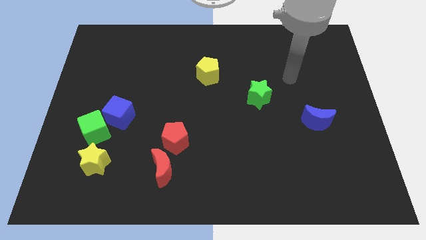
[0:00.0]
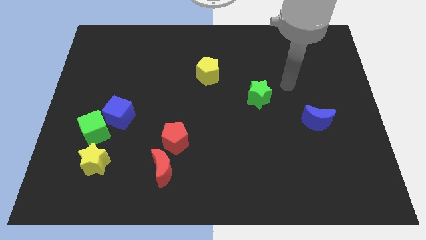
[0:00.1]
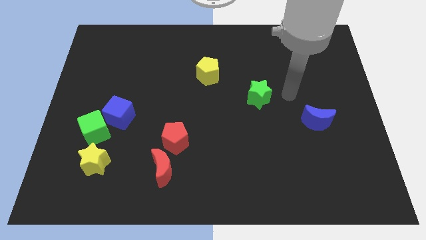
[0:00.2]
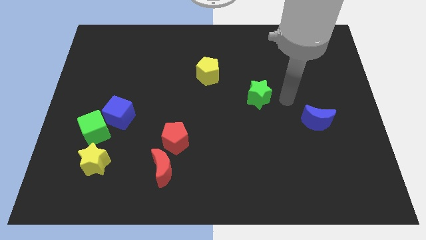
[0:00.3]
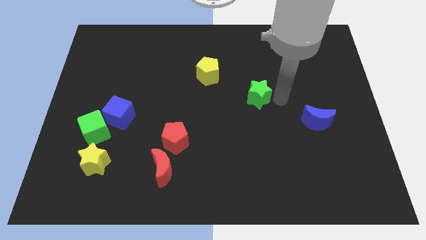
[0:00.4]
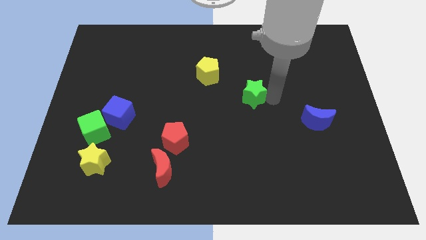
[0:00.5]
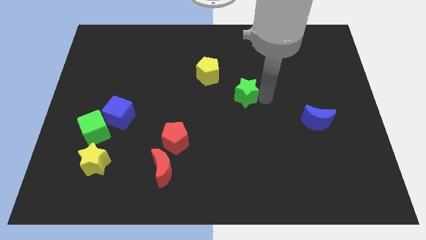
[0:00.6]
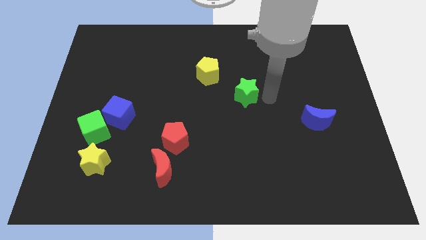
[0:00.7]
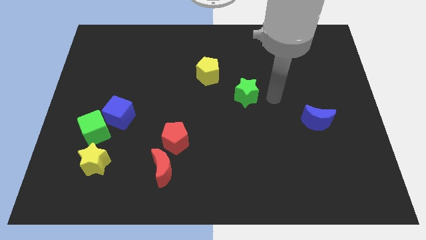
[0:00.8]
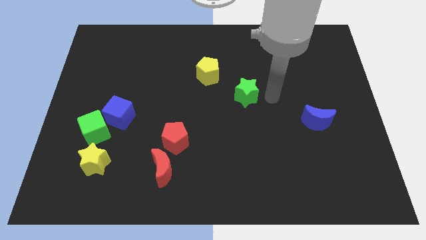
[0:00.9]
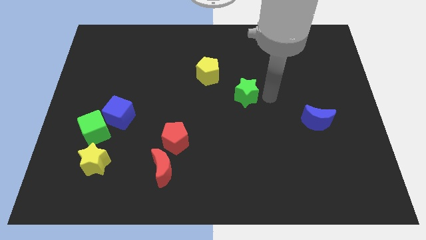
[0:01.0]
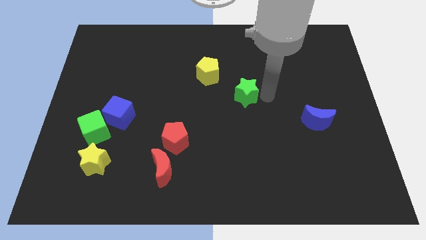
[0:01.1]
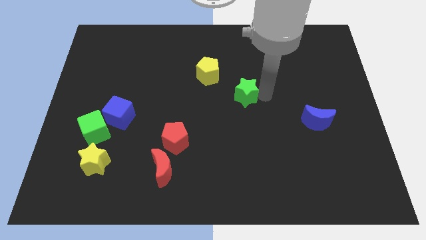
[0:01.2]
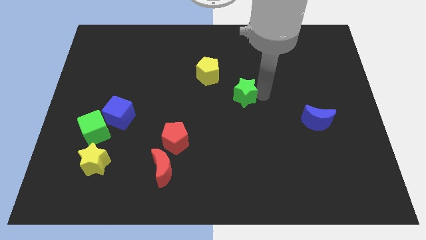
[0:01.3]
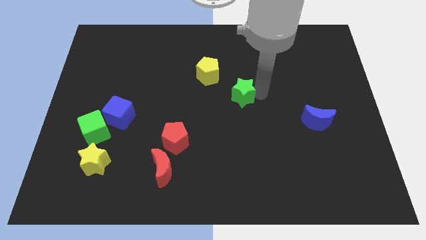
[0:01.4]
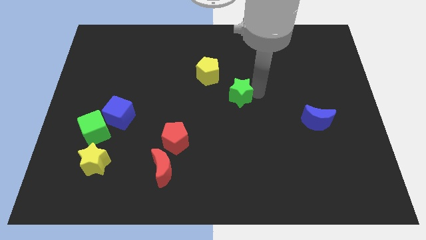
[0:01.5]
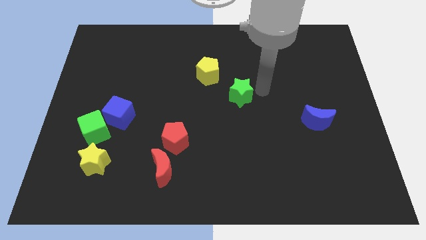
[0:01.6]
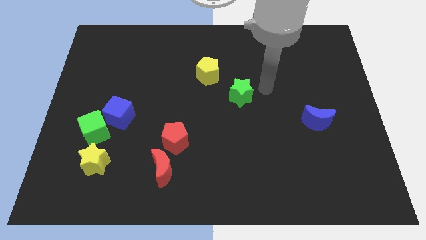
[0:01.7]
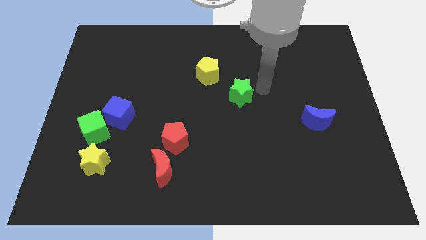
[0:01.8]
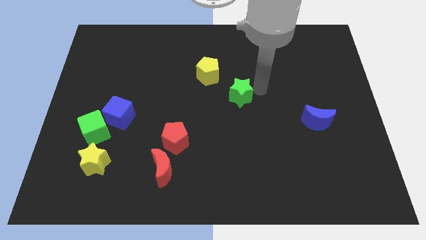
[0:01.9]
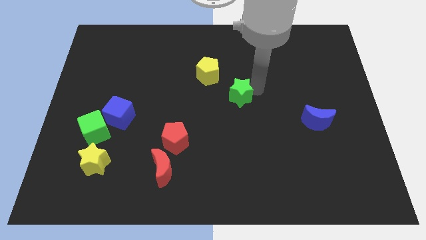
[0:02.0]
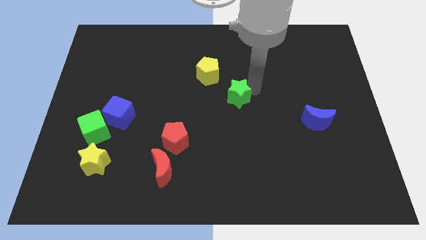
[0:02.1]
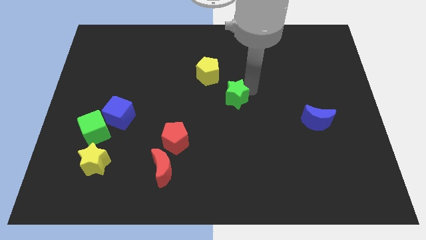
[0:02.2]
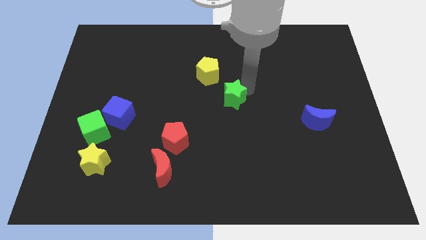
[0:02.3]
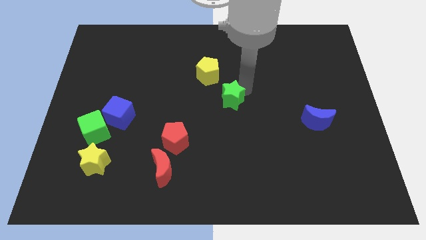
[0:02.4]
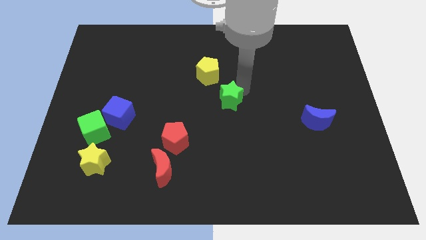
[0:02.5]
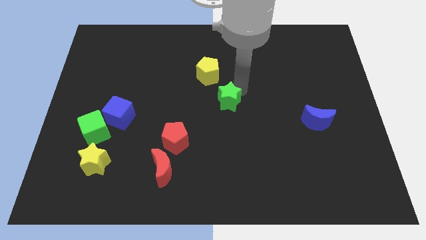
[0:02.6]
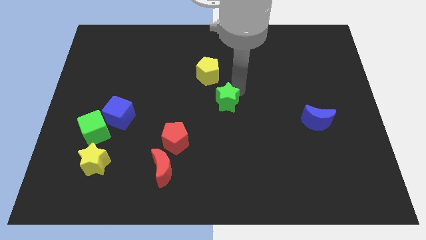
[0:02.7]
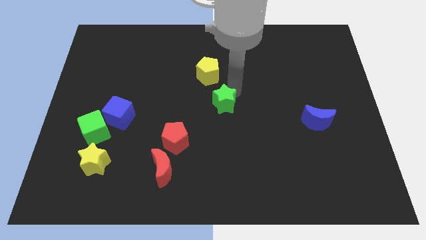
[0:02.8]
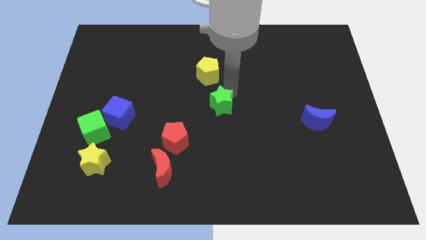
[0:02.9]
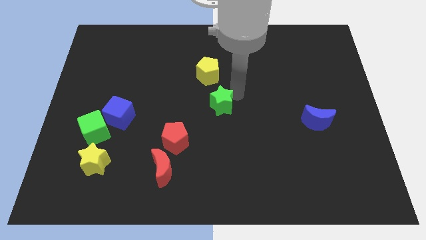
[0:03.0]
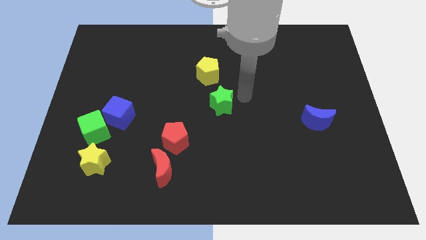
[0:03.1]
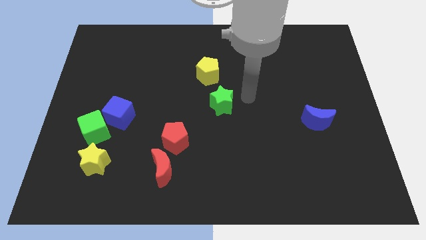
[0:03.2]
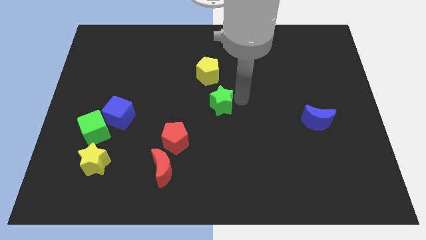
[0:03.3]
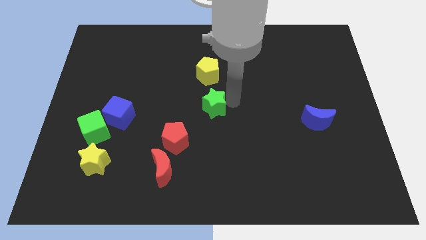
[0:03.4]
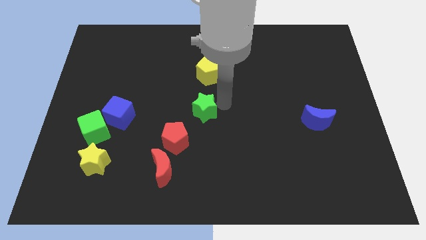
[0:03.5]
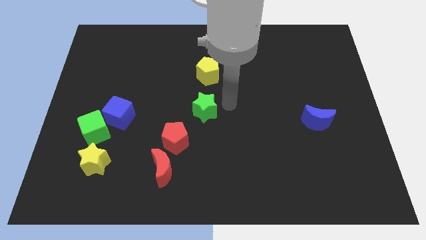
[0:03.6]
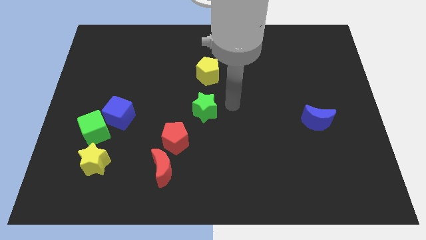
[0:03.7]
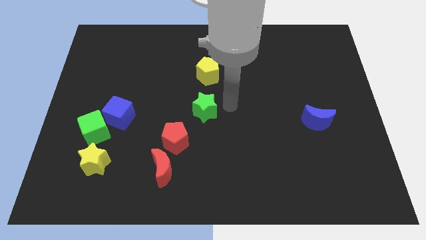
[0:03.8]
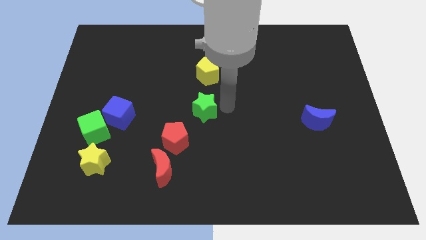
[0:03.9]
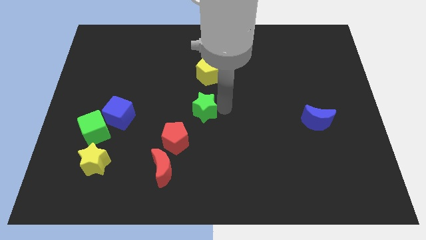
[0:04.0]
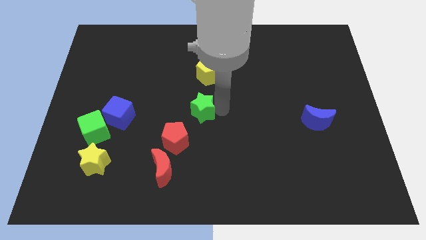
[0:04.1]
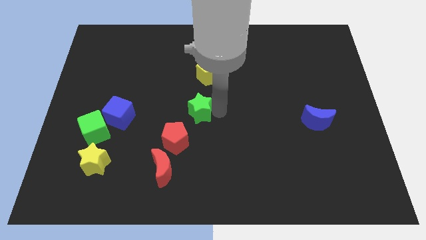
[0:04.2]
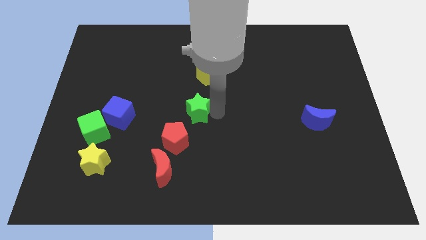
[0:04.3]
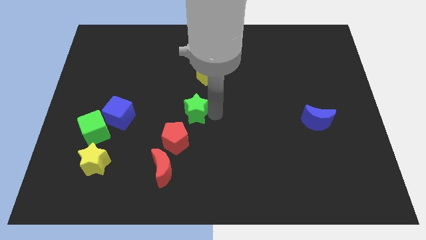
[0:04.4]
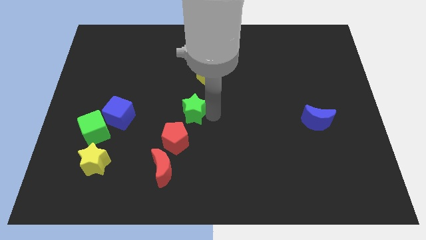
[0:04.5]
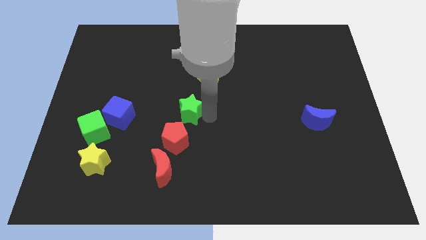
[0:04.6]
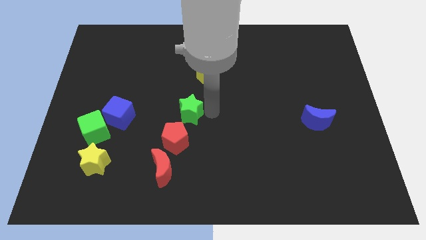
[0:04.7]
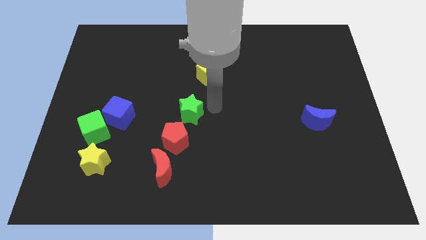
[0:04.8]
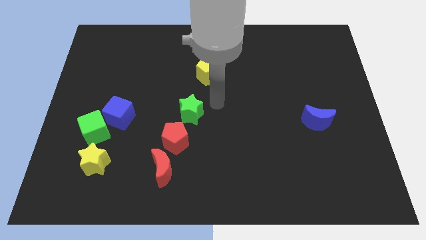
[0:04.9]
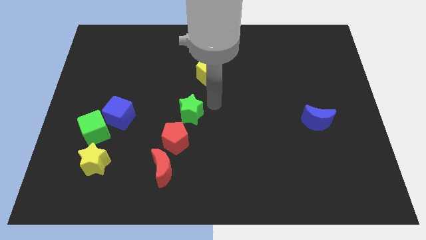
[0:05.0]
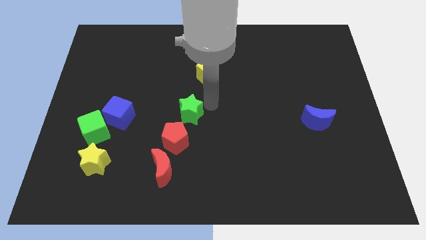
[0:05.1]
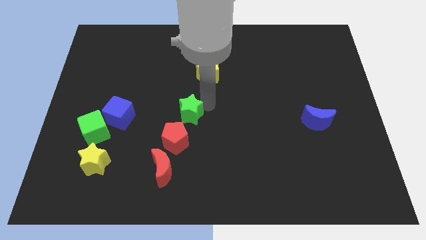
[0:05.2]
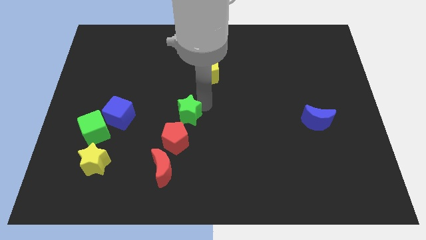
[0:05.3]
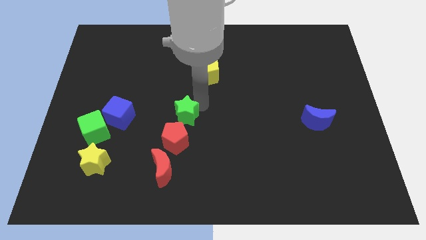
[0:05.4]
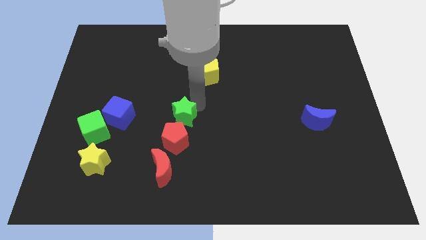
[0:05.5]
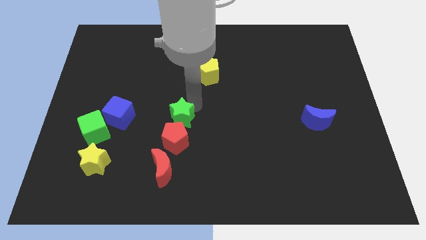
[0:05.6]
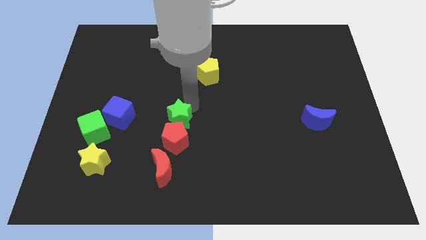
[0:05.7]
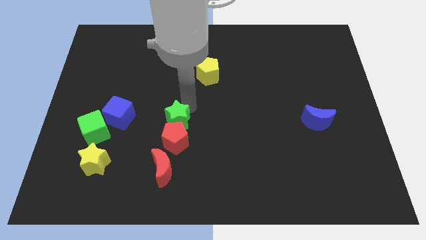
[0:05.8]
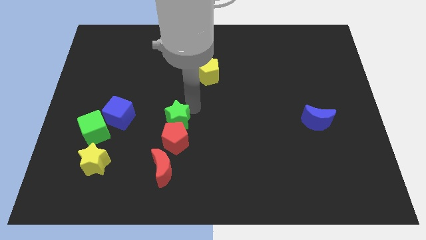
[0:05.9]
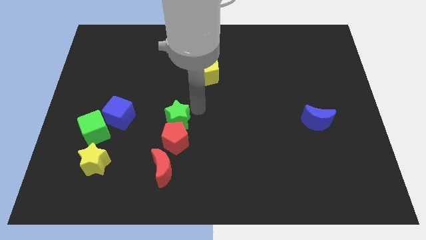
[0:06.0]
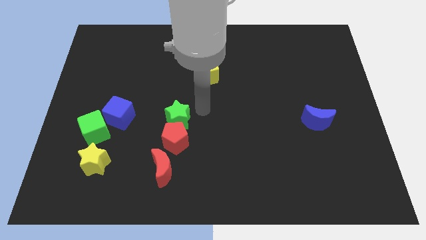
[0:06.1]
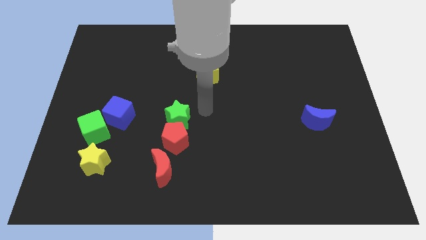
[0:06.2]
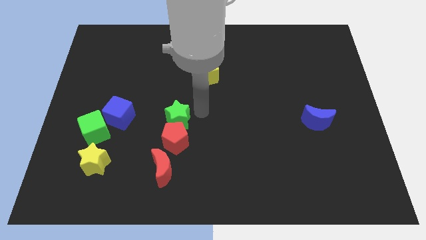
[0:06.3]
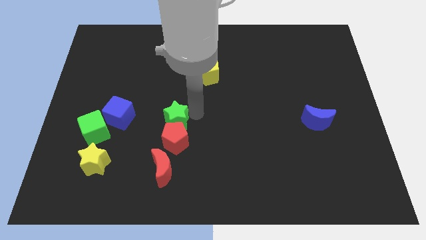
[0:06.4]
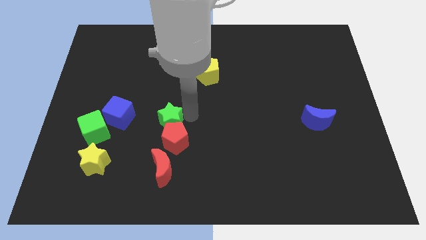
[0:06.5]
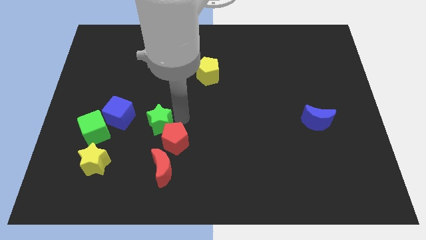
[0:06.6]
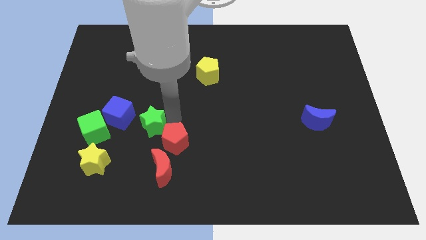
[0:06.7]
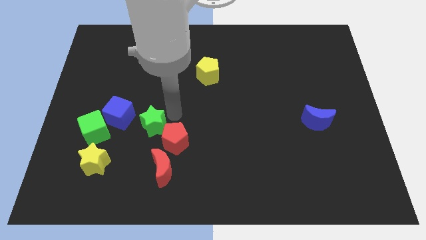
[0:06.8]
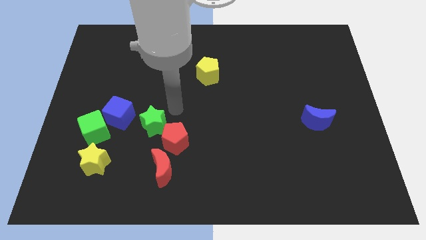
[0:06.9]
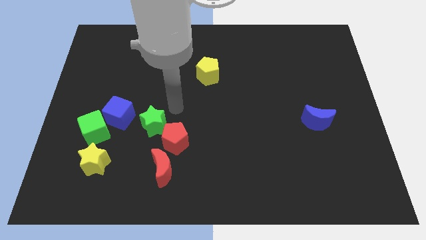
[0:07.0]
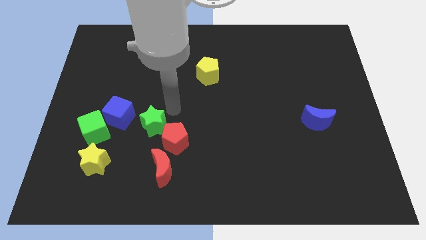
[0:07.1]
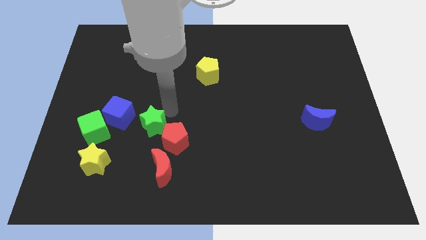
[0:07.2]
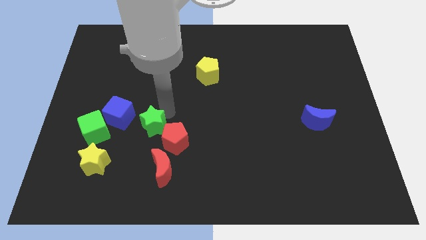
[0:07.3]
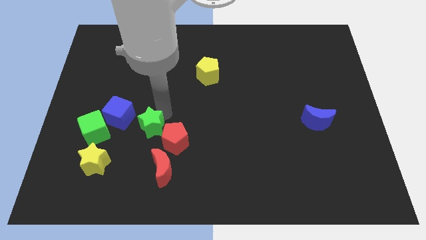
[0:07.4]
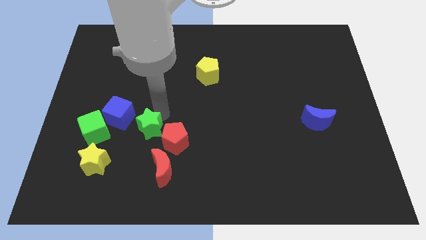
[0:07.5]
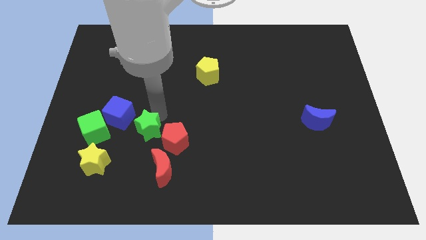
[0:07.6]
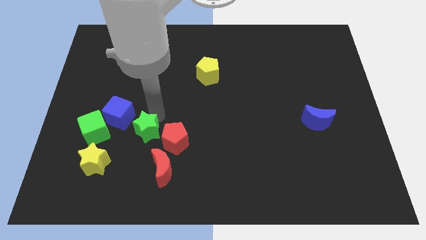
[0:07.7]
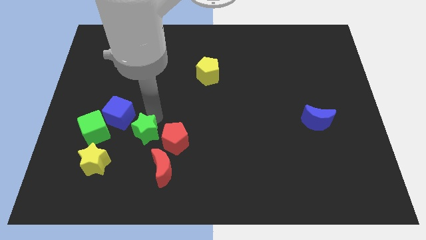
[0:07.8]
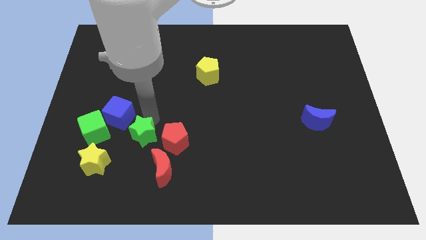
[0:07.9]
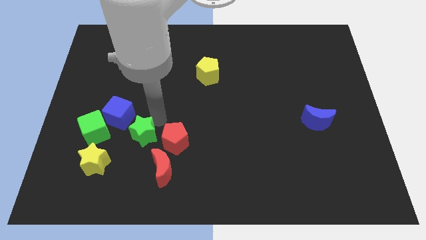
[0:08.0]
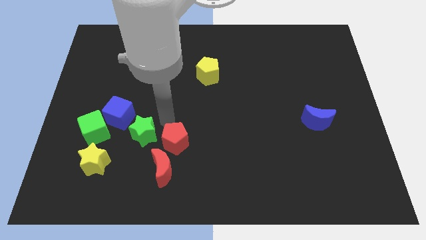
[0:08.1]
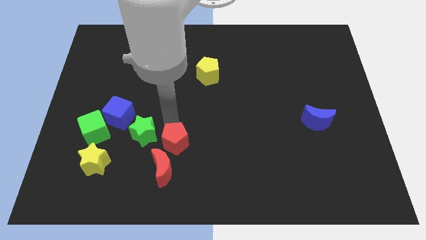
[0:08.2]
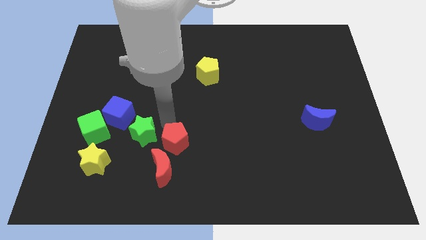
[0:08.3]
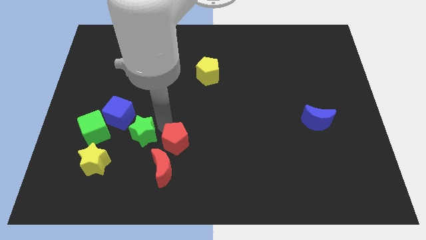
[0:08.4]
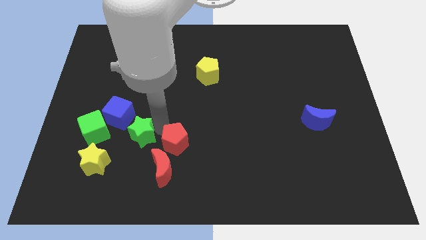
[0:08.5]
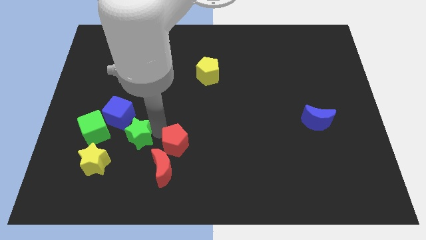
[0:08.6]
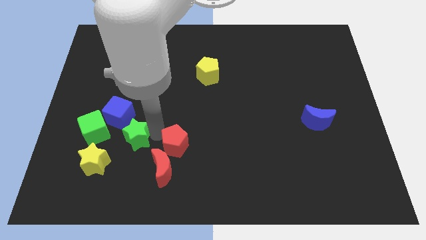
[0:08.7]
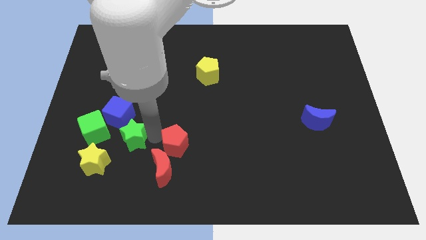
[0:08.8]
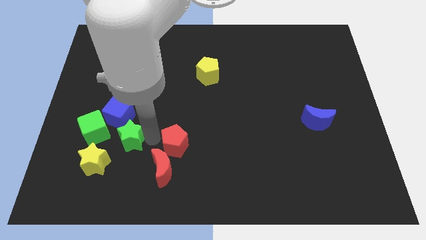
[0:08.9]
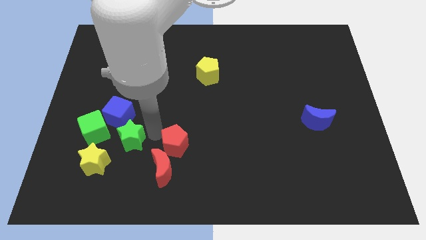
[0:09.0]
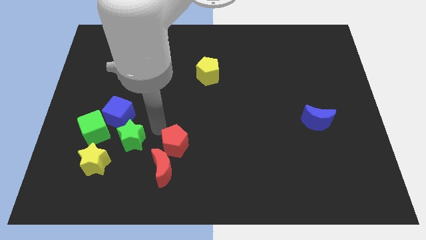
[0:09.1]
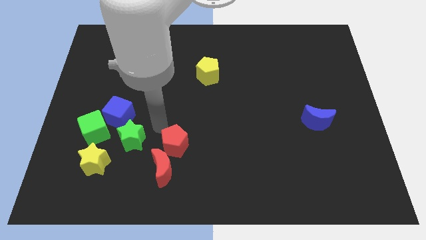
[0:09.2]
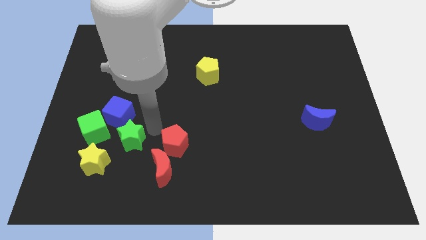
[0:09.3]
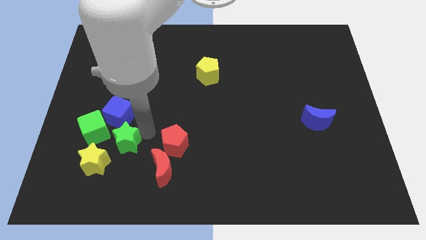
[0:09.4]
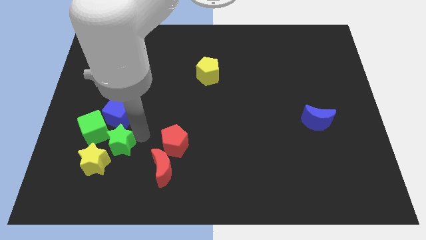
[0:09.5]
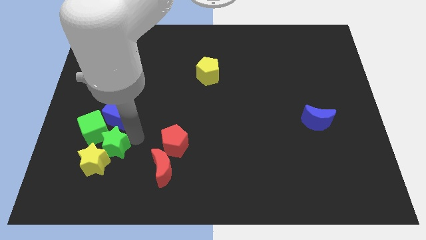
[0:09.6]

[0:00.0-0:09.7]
slide the green star close to the yellow star
